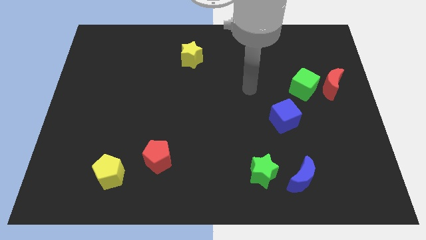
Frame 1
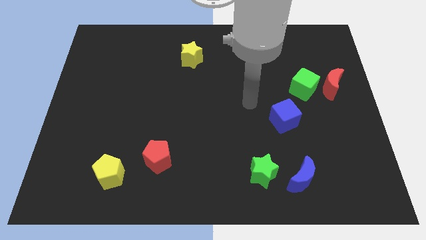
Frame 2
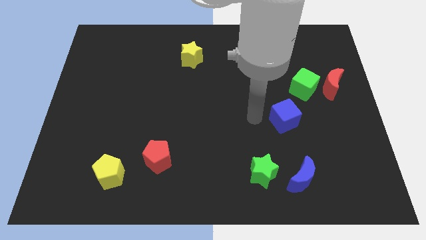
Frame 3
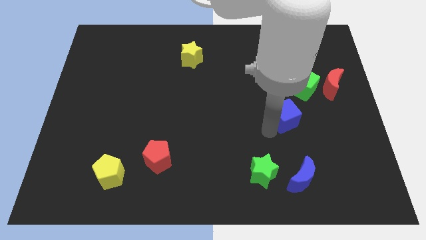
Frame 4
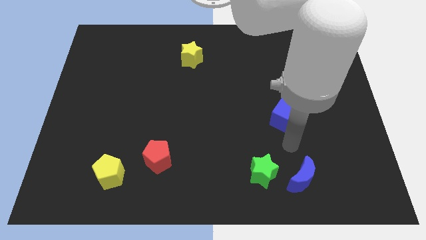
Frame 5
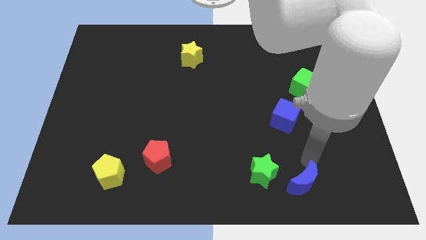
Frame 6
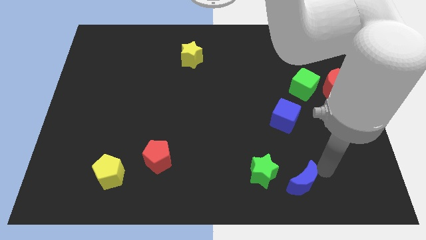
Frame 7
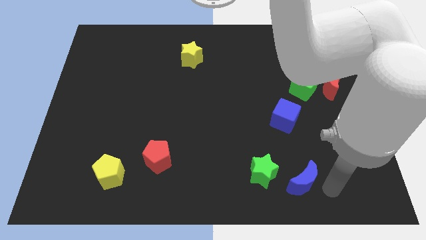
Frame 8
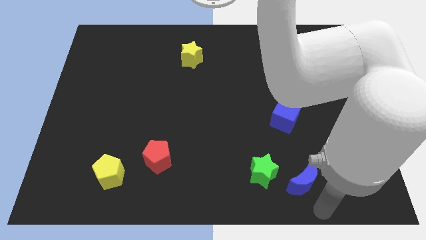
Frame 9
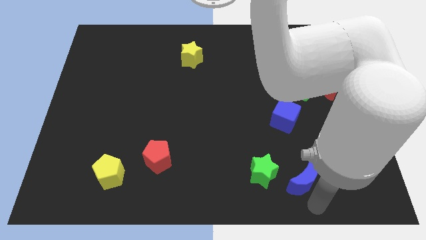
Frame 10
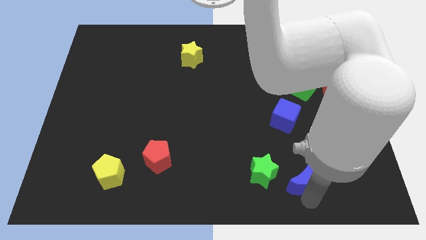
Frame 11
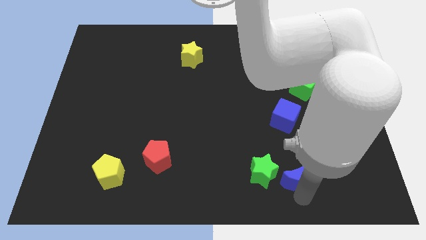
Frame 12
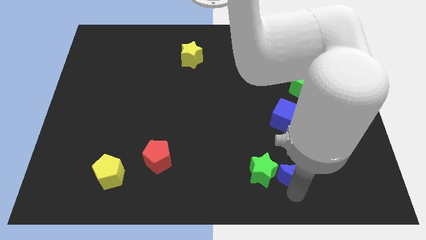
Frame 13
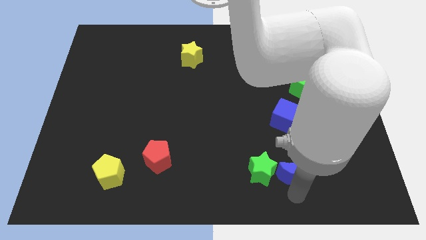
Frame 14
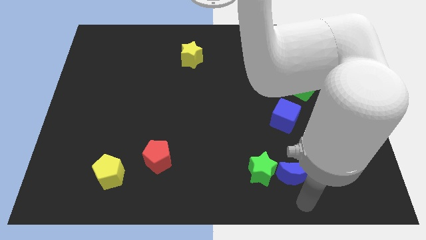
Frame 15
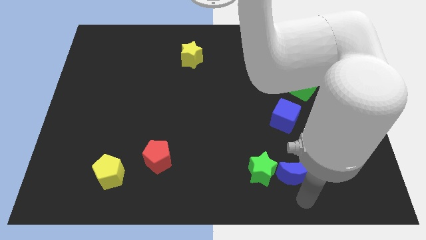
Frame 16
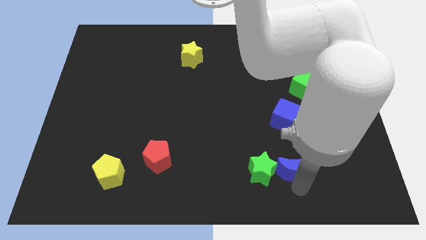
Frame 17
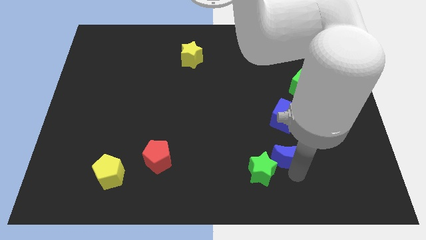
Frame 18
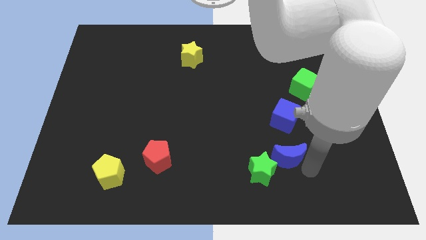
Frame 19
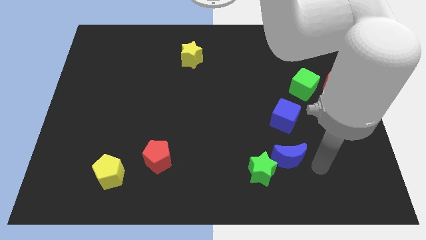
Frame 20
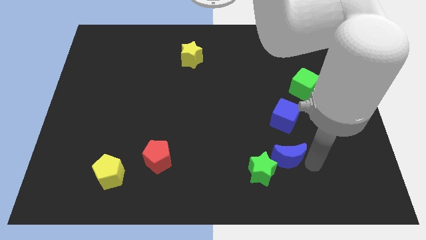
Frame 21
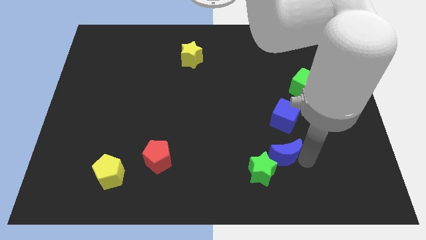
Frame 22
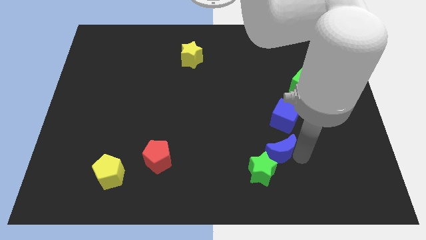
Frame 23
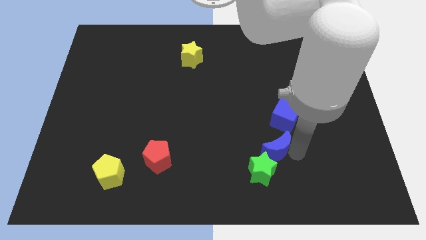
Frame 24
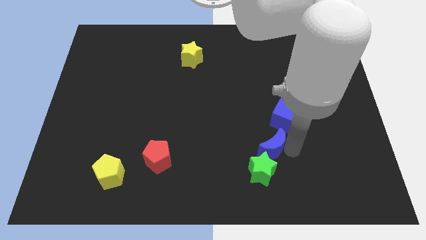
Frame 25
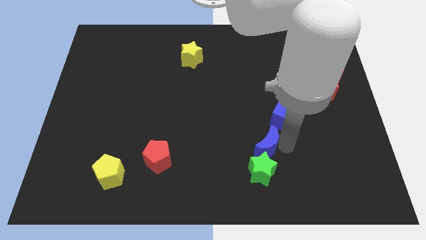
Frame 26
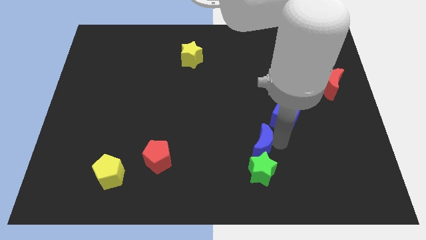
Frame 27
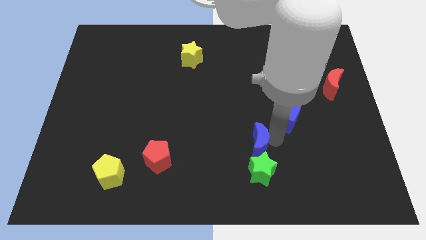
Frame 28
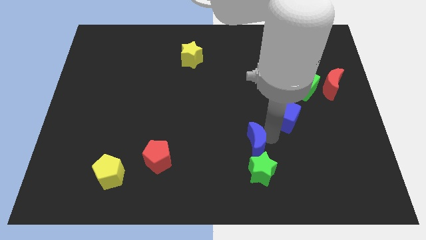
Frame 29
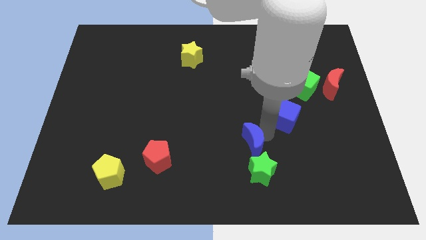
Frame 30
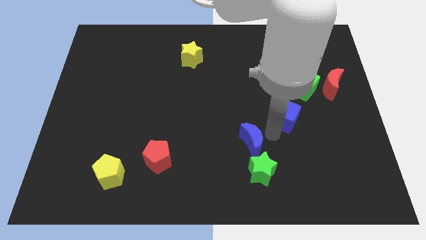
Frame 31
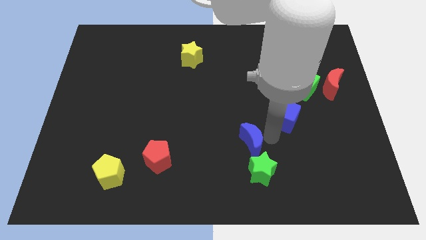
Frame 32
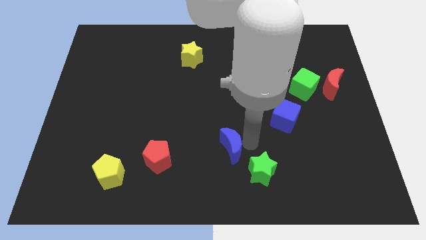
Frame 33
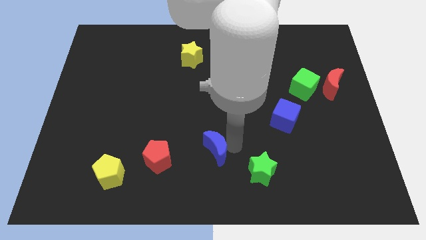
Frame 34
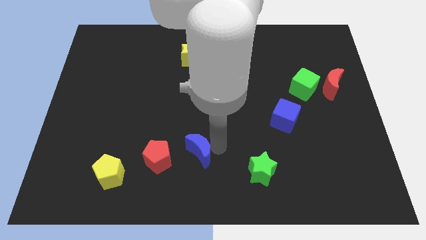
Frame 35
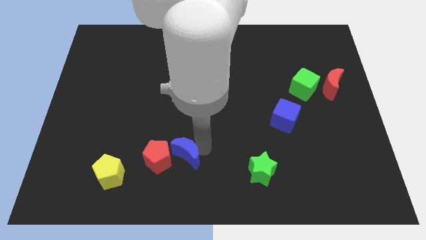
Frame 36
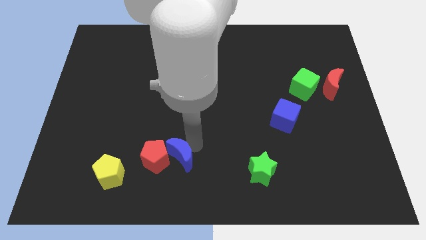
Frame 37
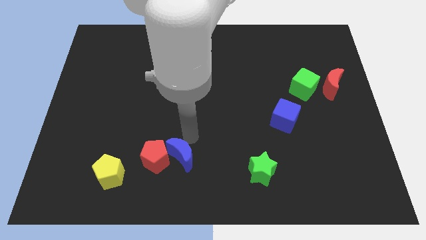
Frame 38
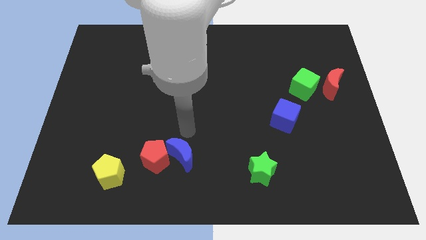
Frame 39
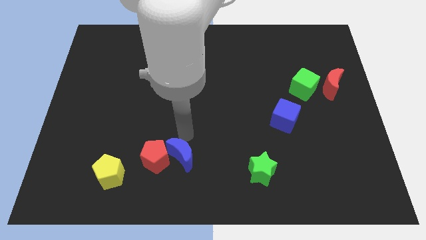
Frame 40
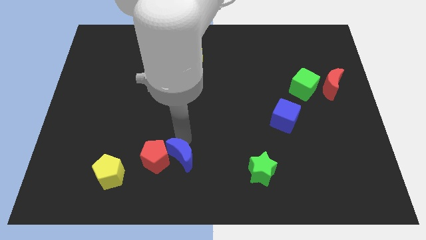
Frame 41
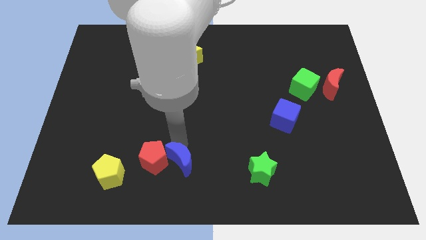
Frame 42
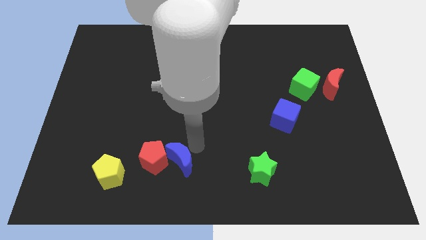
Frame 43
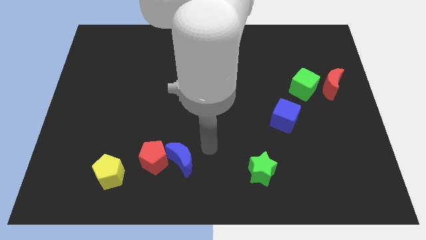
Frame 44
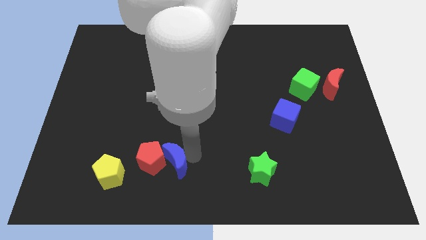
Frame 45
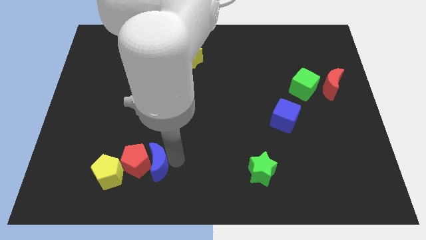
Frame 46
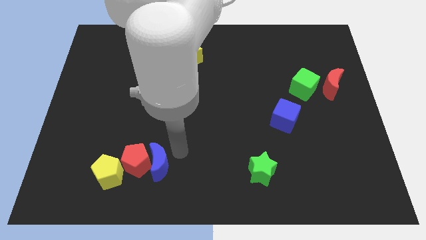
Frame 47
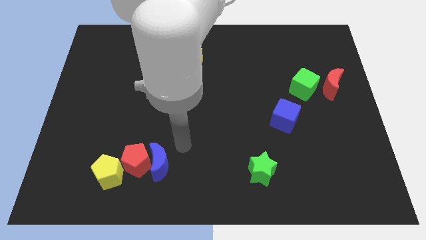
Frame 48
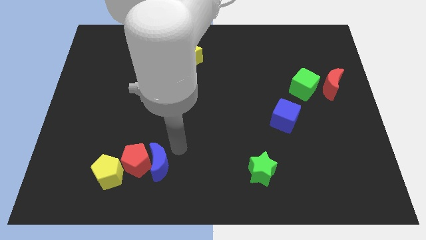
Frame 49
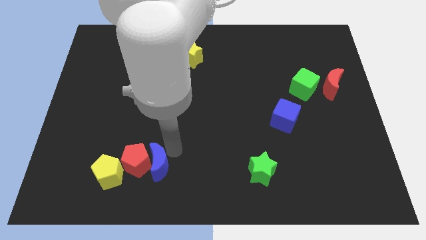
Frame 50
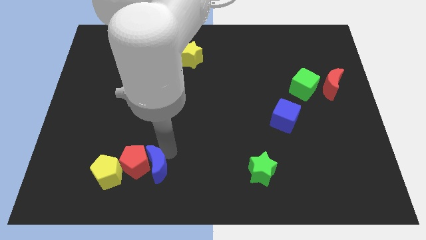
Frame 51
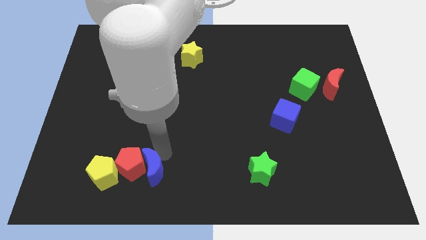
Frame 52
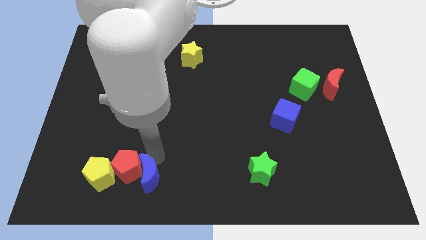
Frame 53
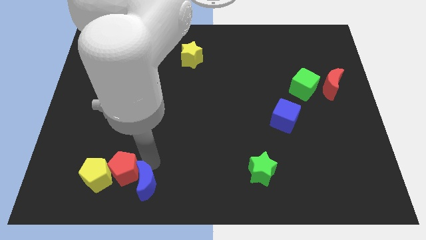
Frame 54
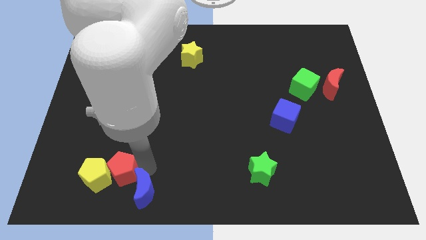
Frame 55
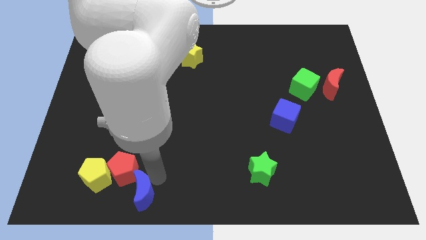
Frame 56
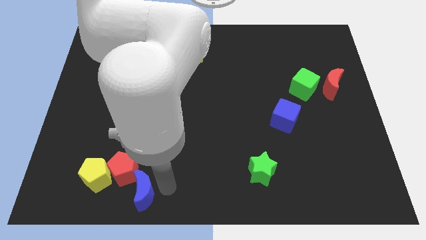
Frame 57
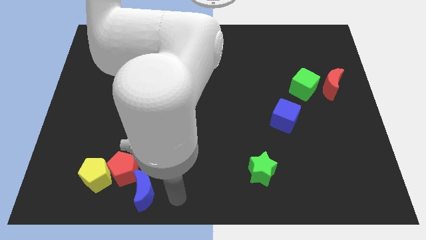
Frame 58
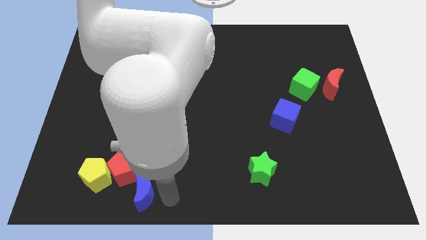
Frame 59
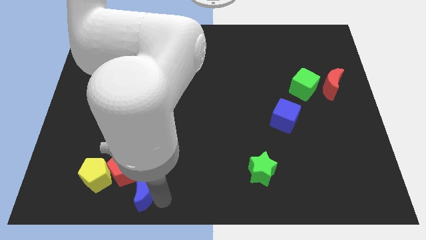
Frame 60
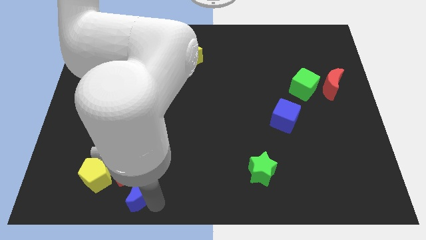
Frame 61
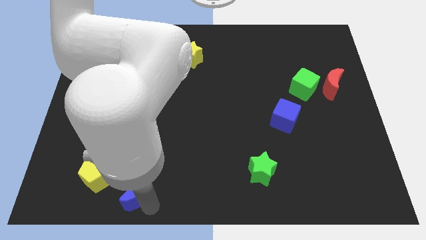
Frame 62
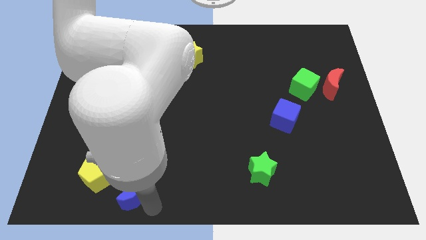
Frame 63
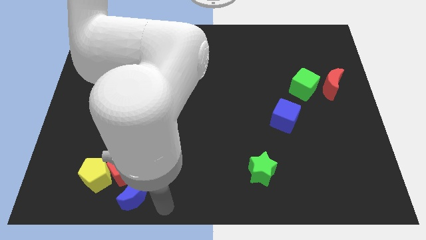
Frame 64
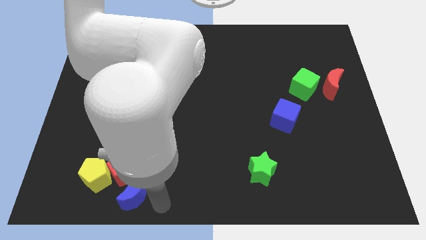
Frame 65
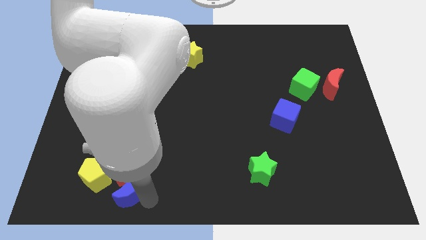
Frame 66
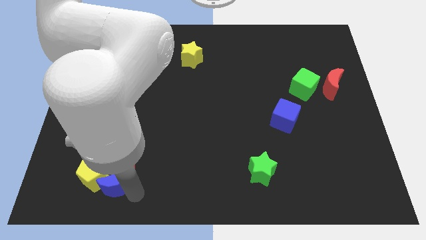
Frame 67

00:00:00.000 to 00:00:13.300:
move the blue moon to the yellow pentagon

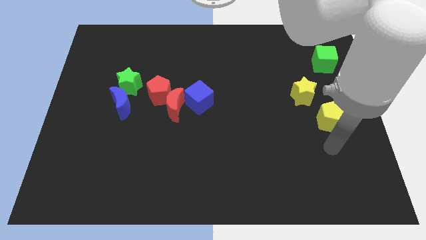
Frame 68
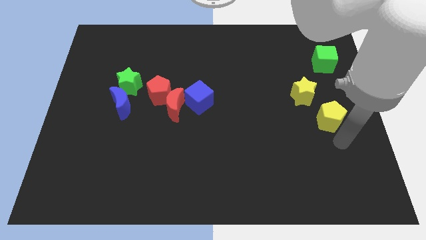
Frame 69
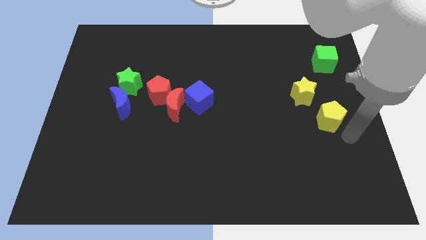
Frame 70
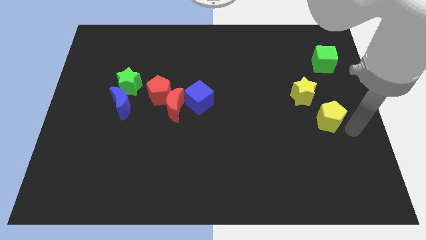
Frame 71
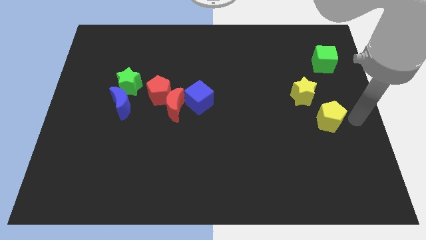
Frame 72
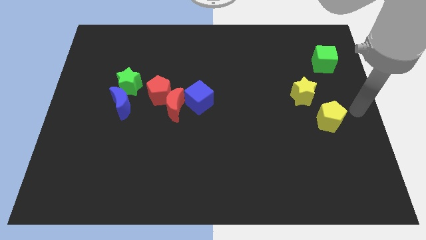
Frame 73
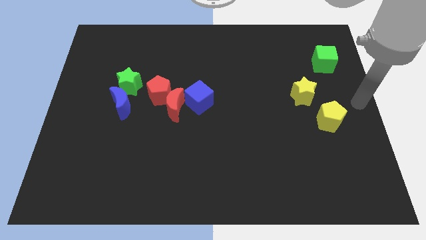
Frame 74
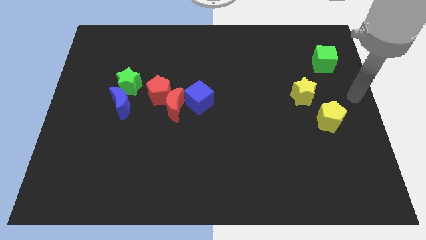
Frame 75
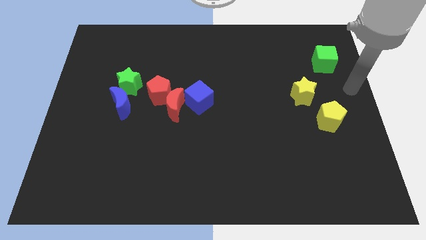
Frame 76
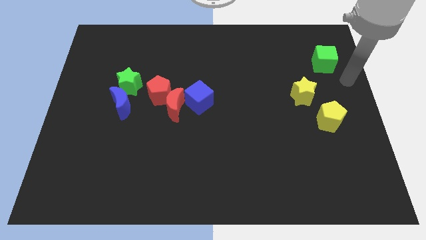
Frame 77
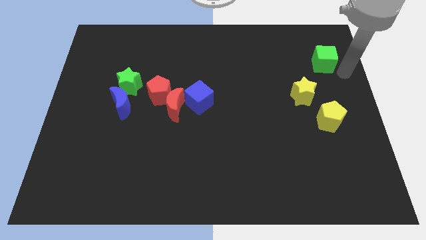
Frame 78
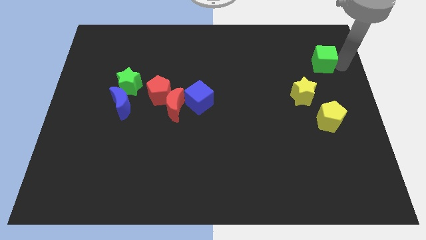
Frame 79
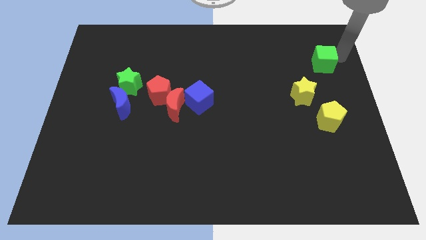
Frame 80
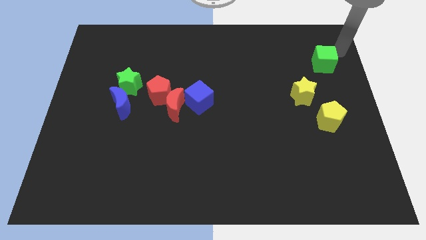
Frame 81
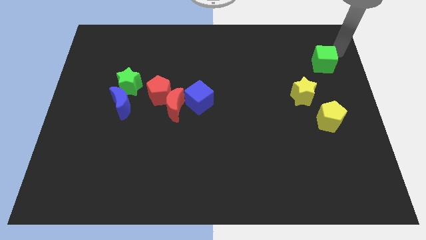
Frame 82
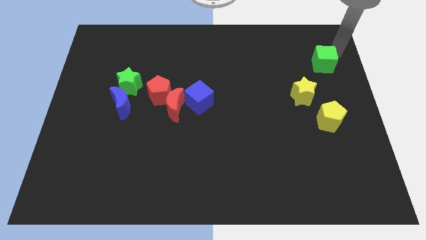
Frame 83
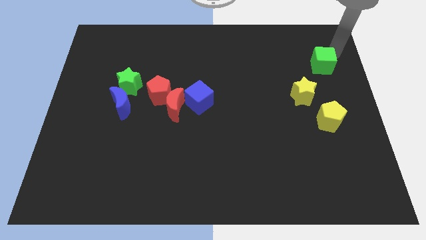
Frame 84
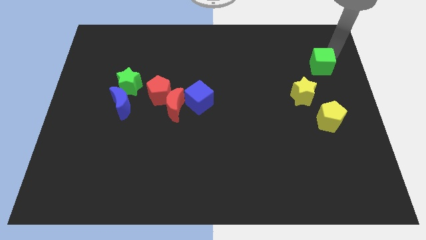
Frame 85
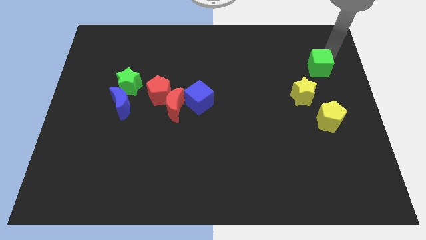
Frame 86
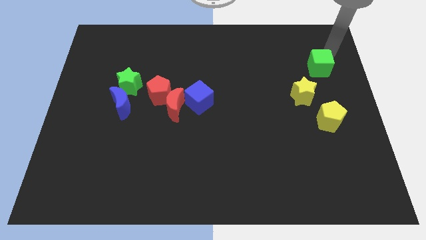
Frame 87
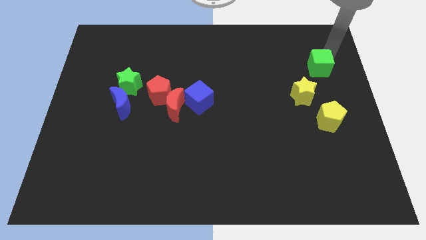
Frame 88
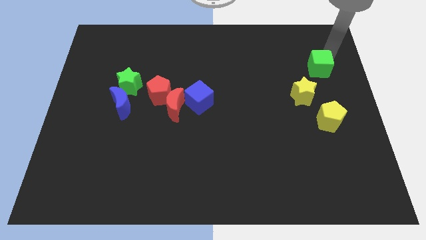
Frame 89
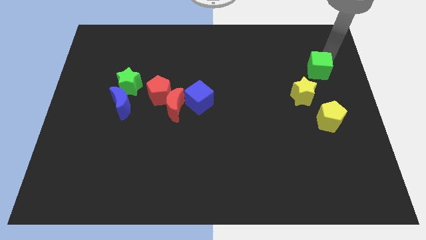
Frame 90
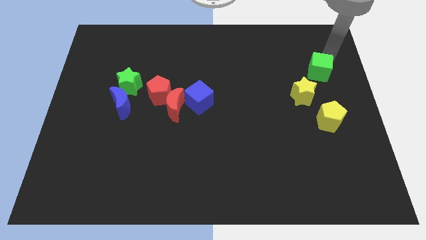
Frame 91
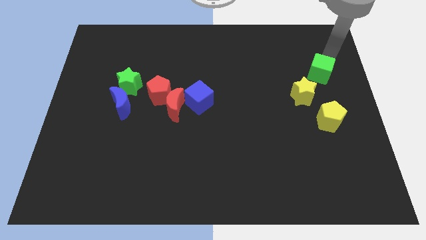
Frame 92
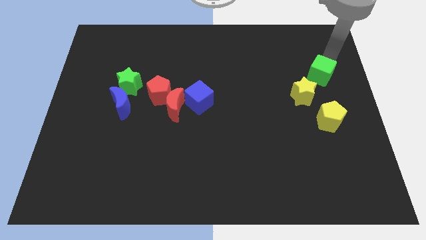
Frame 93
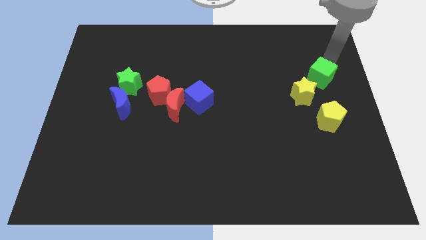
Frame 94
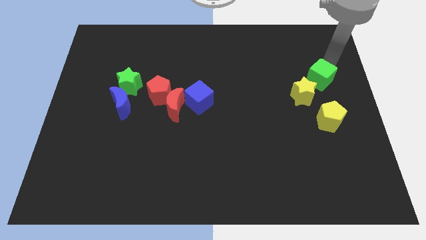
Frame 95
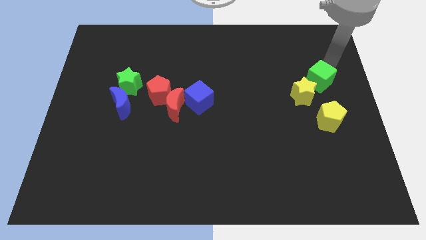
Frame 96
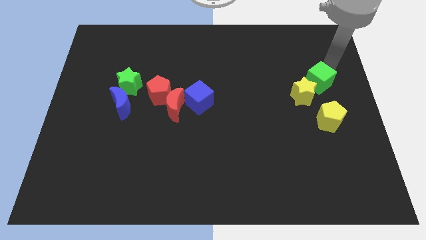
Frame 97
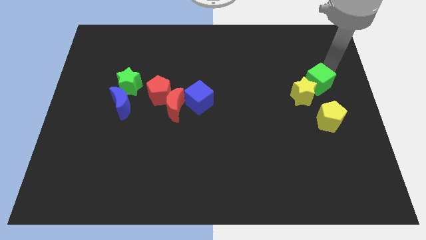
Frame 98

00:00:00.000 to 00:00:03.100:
put the green cube towards the yellow star
